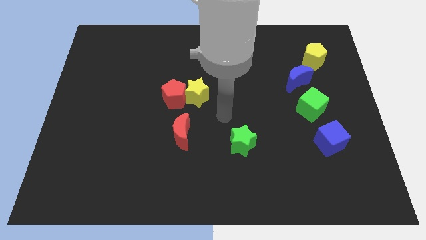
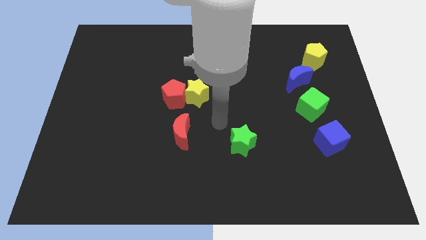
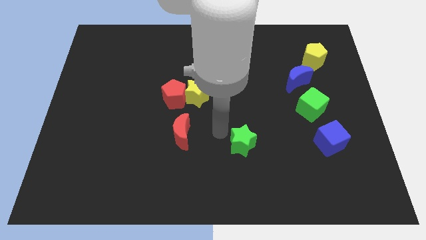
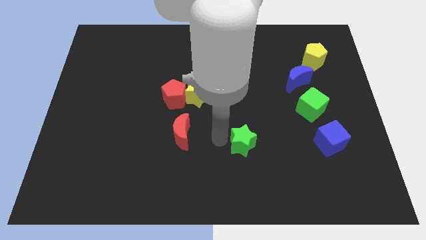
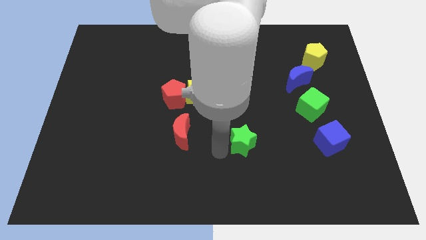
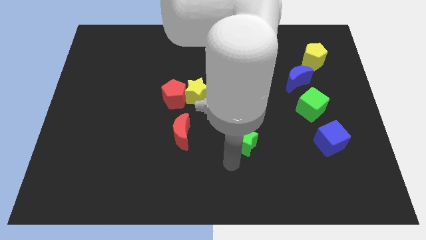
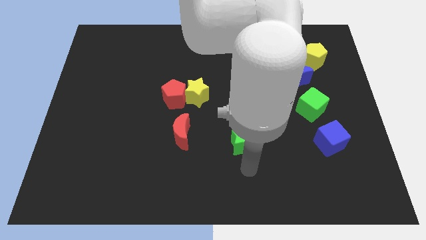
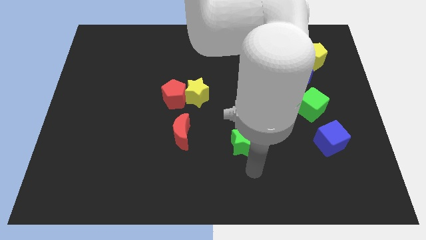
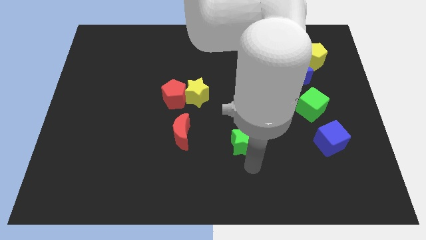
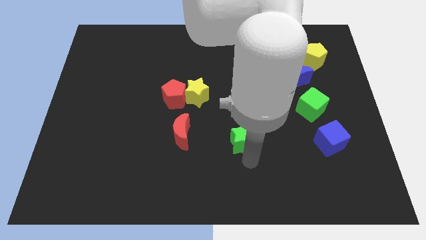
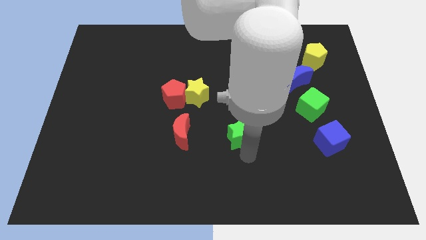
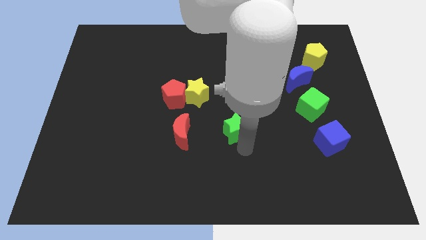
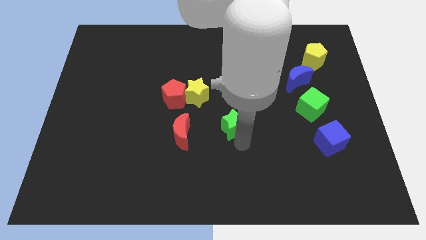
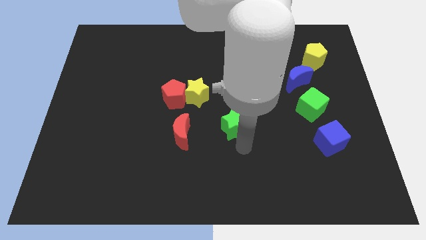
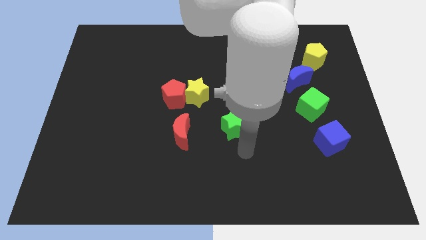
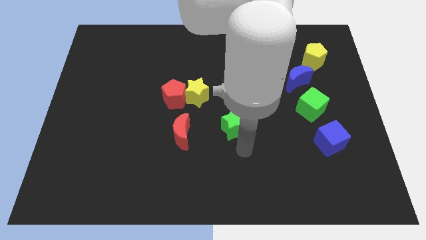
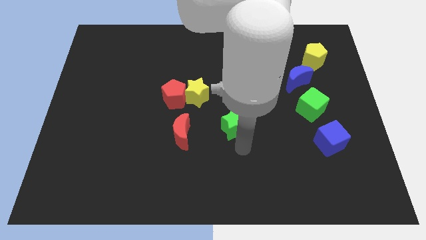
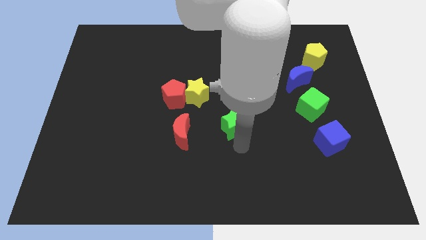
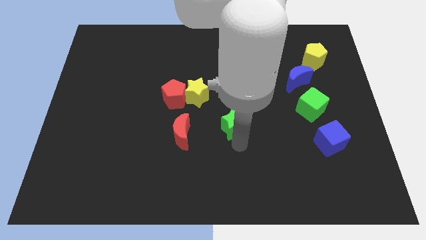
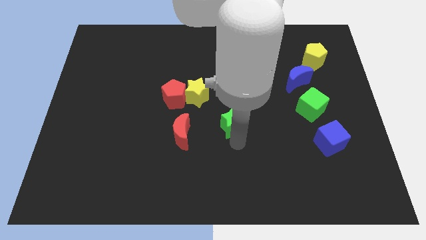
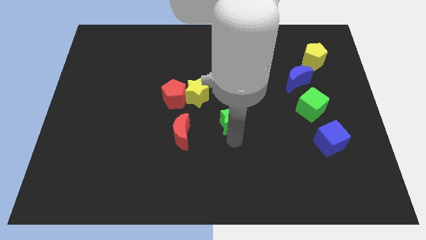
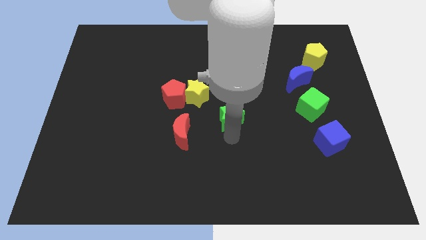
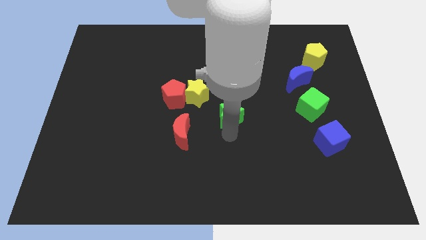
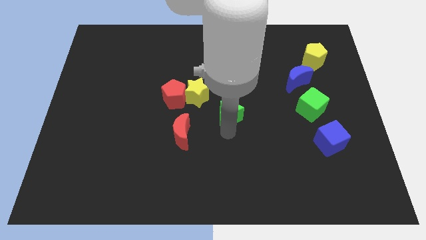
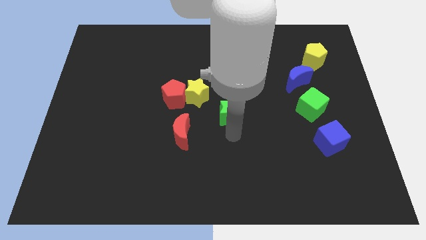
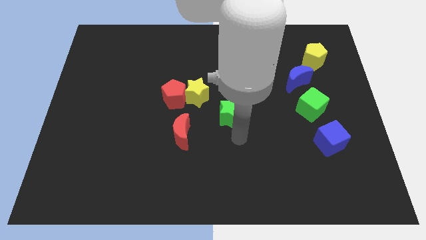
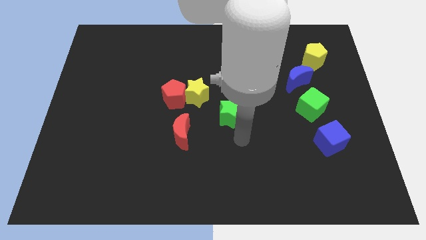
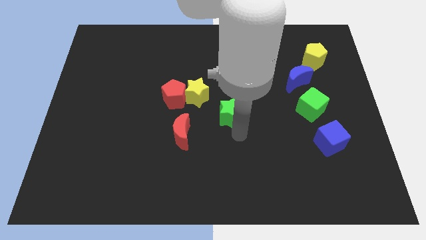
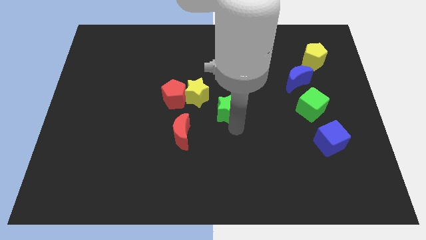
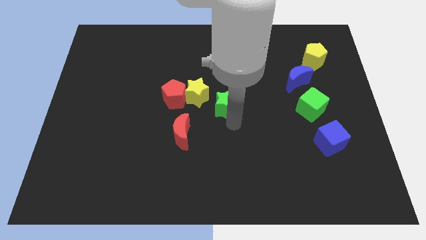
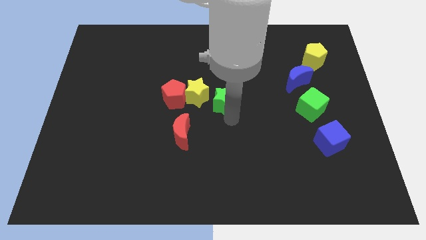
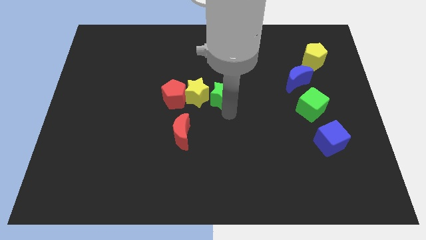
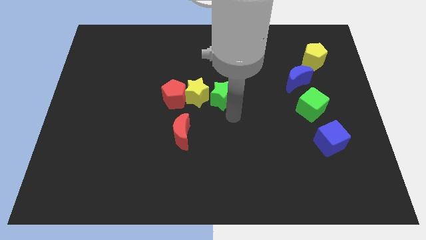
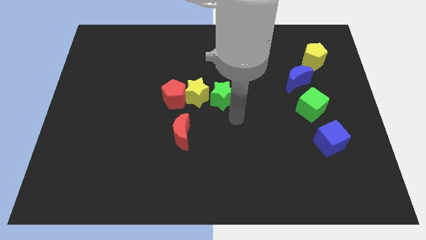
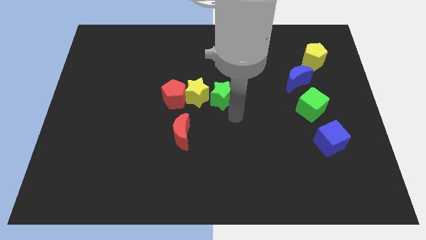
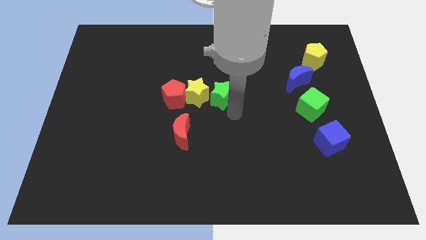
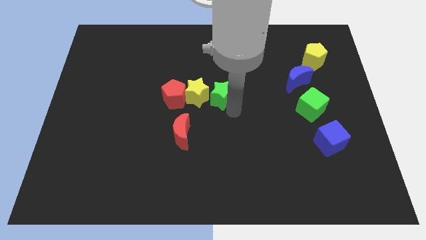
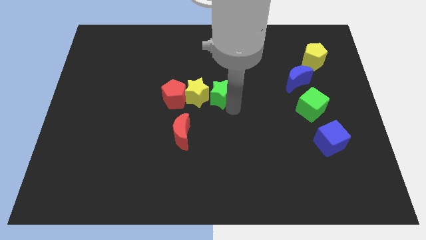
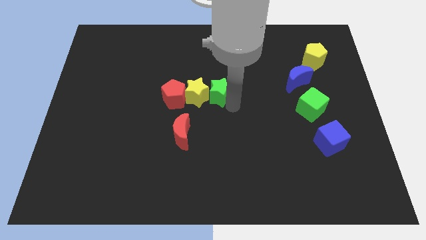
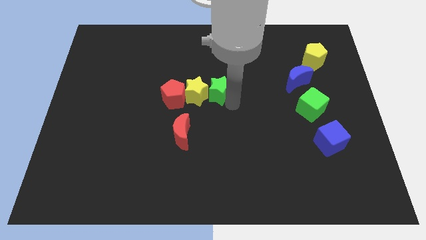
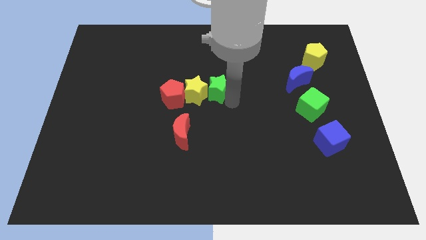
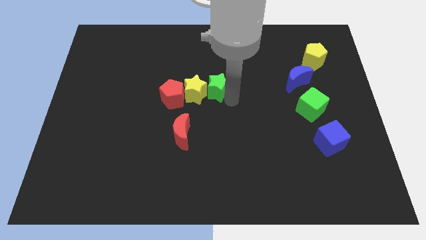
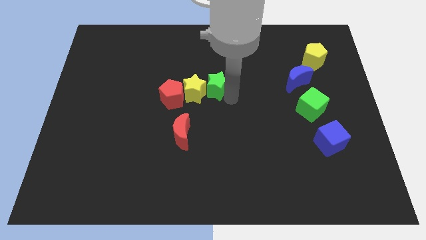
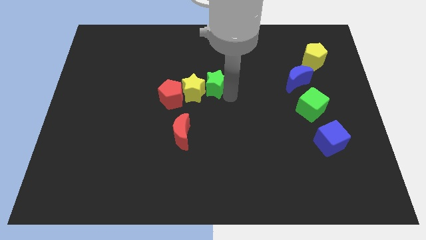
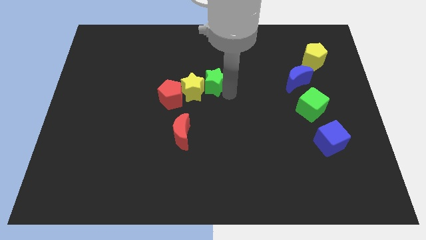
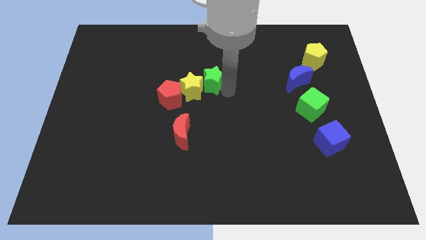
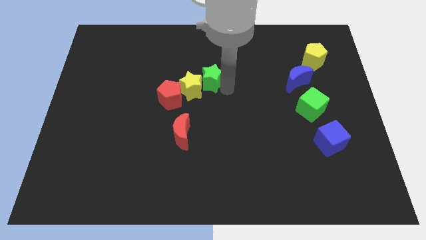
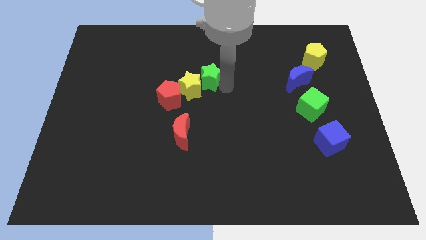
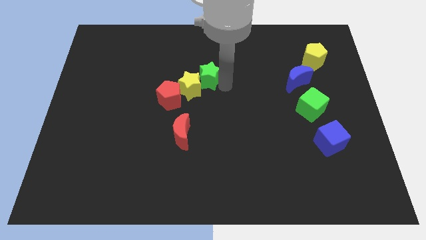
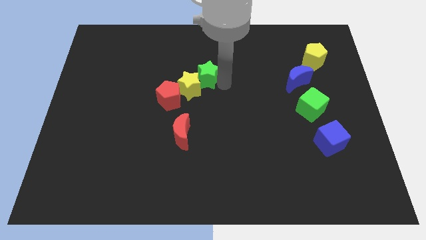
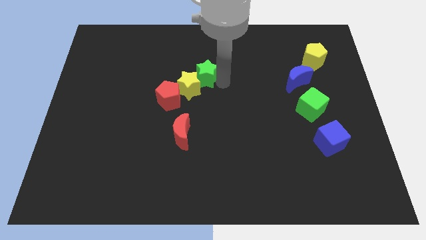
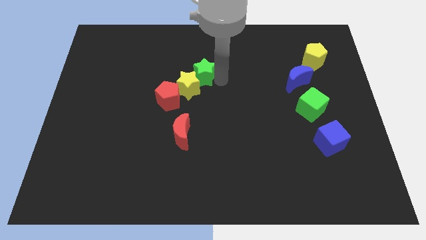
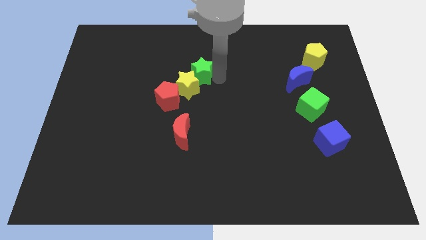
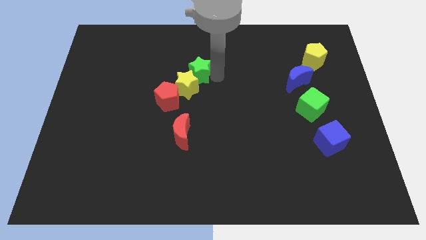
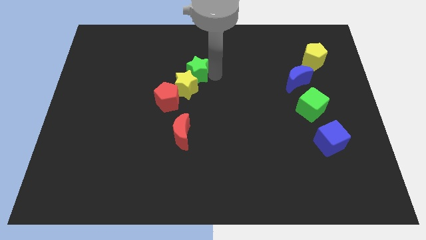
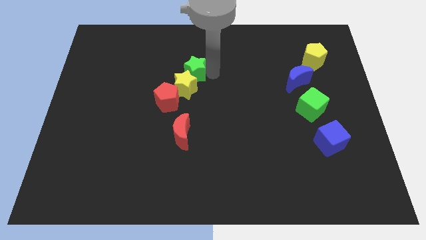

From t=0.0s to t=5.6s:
push the green star diagonally up and left

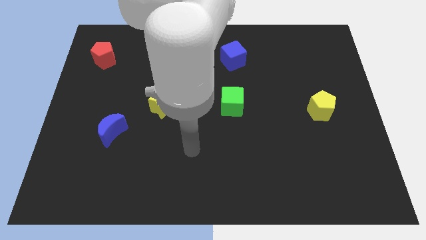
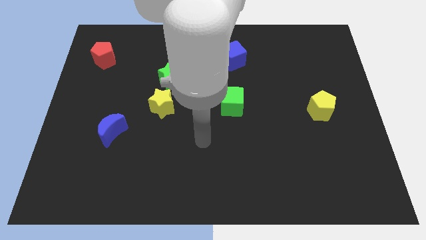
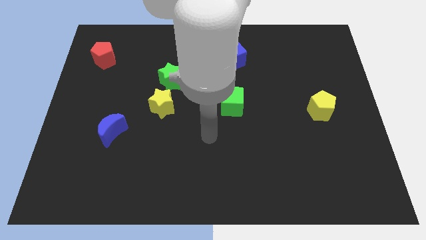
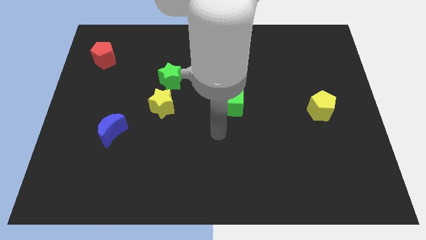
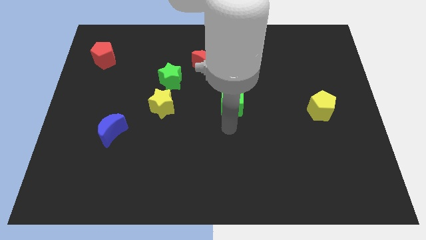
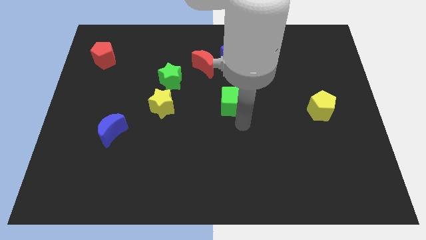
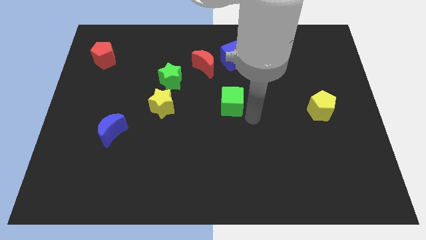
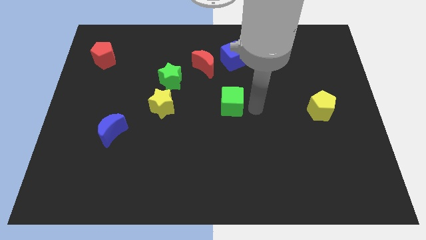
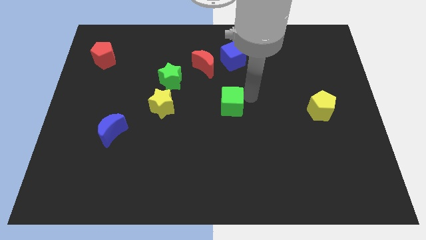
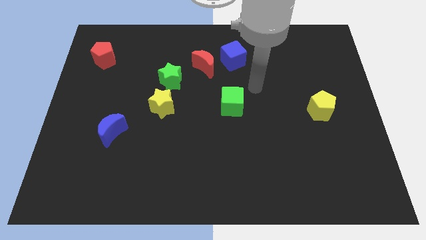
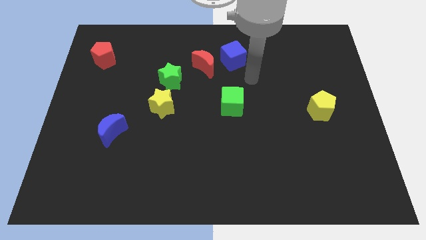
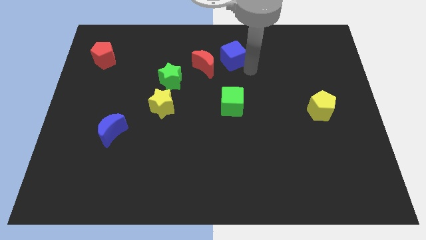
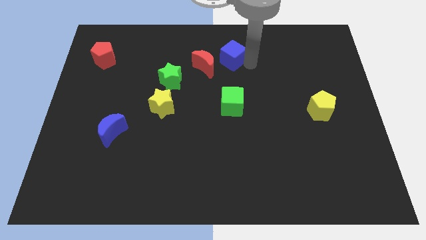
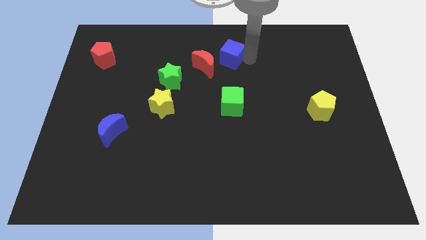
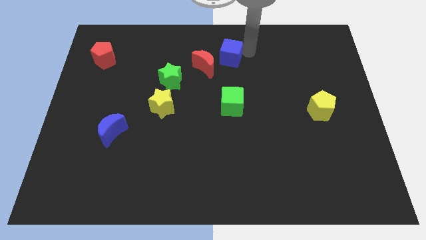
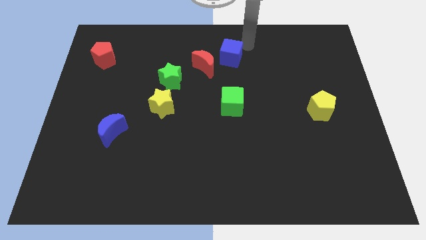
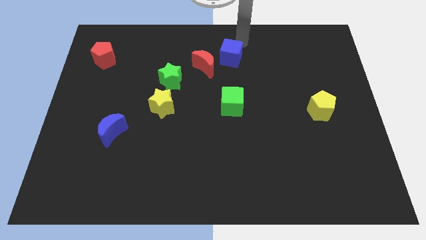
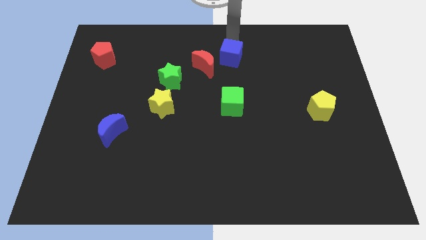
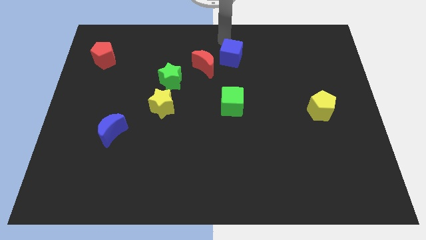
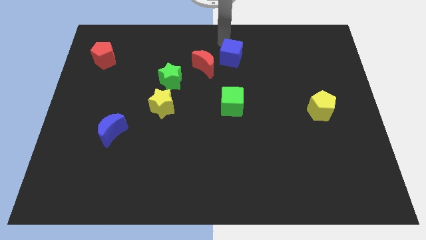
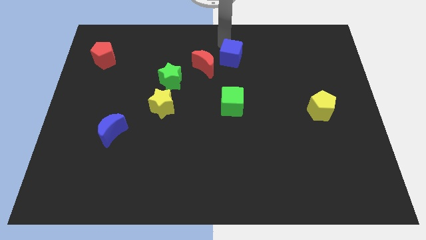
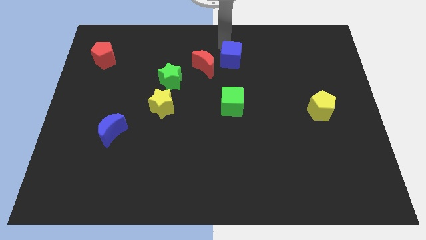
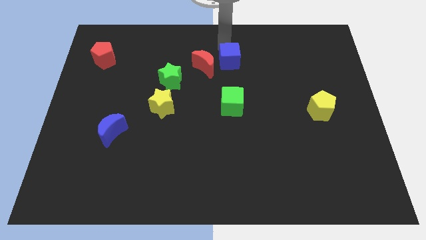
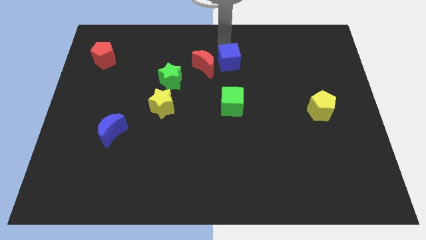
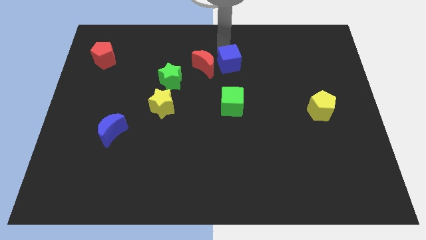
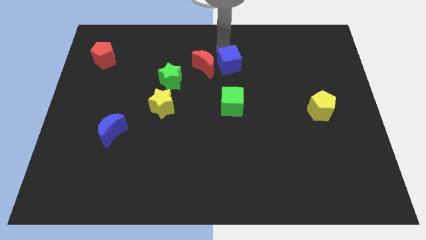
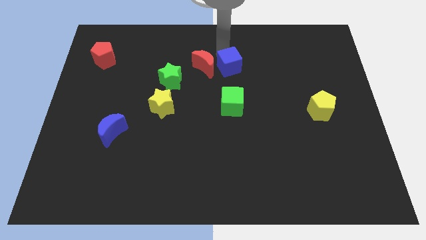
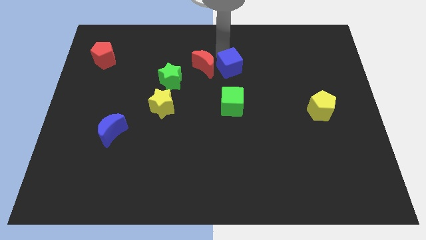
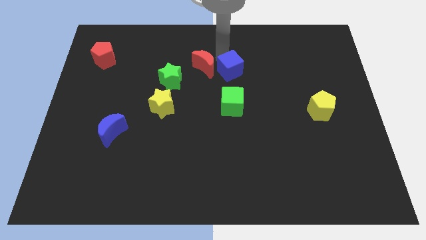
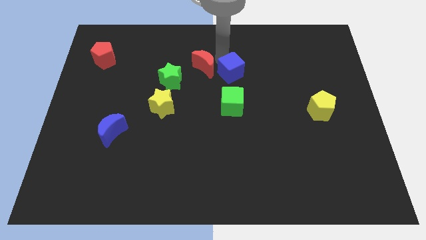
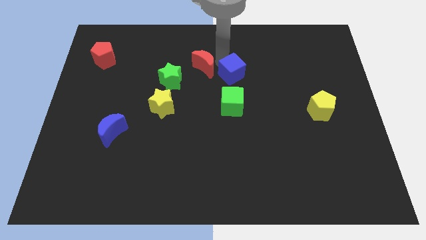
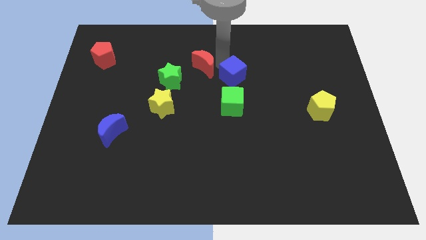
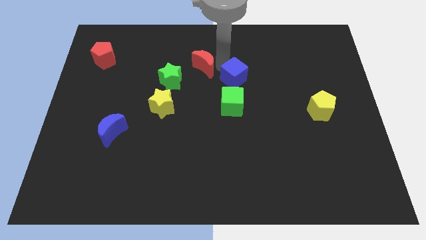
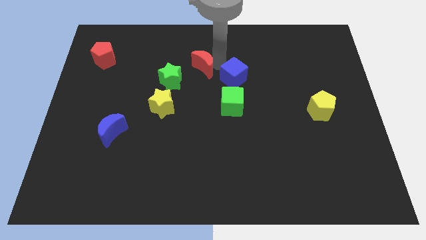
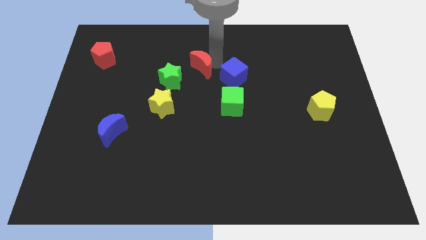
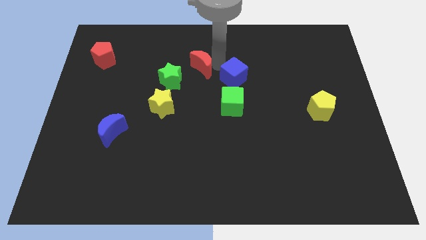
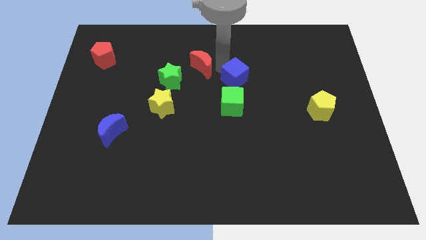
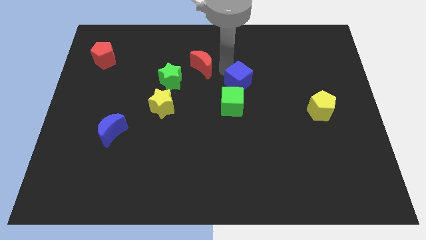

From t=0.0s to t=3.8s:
slightly move the blue cube down
